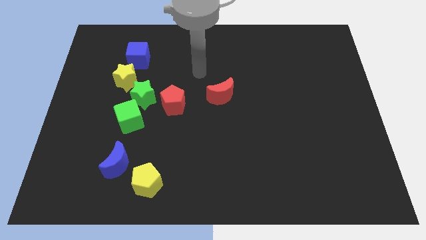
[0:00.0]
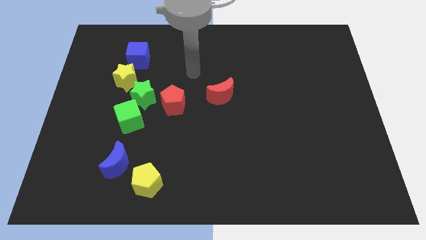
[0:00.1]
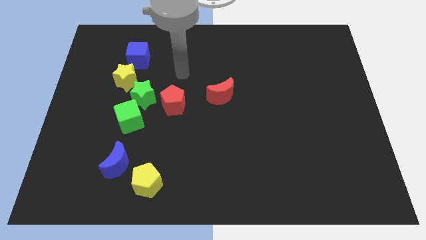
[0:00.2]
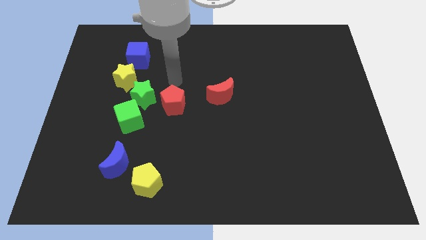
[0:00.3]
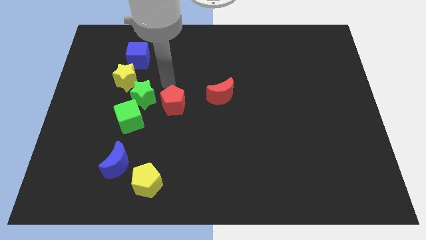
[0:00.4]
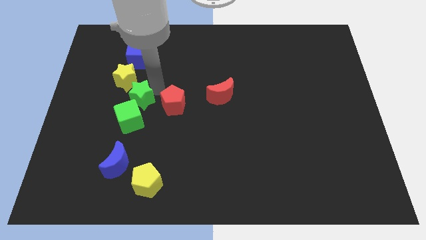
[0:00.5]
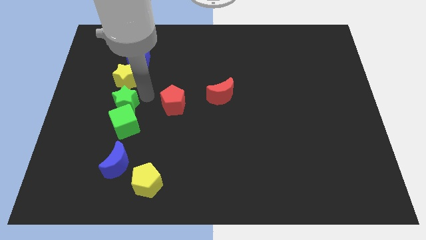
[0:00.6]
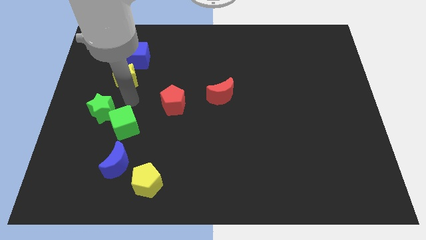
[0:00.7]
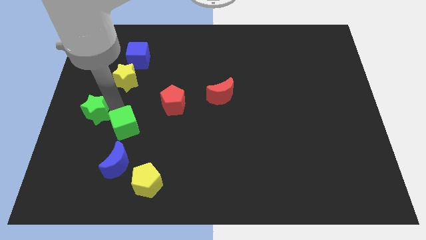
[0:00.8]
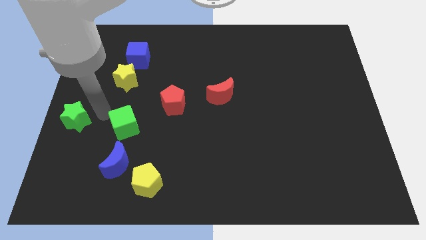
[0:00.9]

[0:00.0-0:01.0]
move the green cube away from the green star

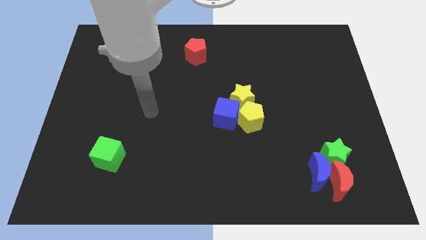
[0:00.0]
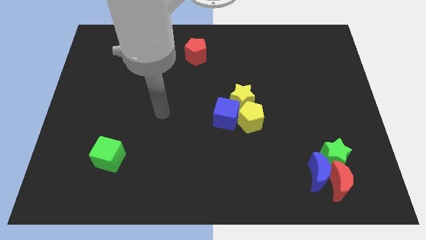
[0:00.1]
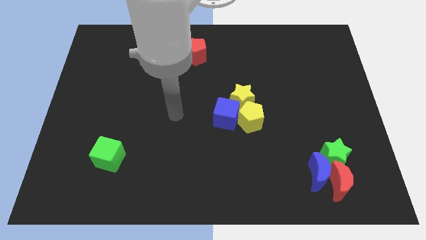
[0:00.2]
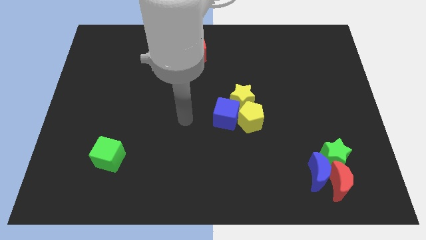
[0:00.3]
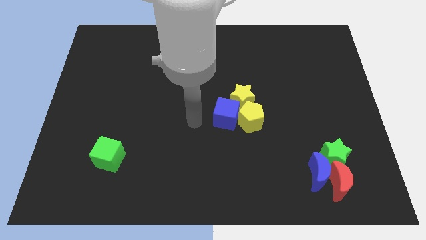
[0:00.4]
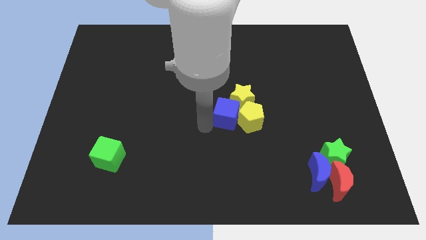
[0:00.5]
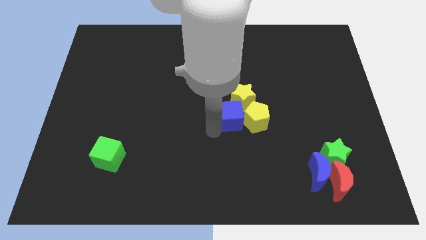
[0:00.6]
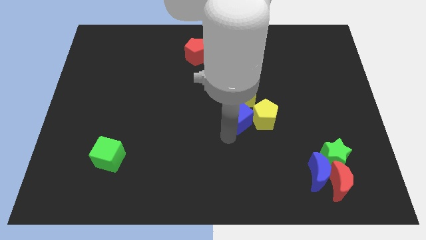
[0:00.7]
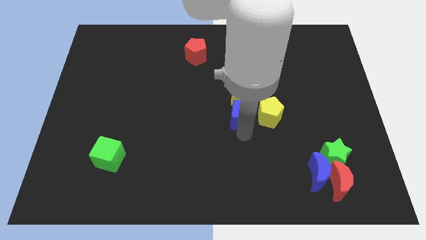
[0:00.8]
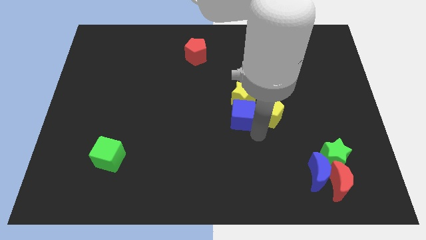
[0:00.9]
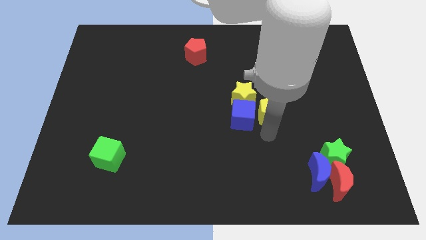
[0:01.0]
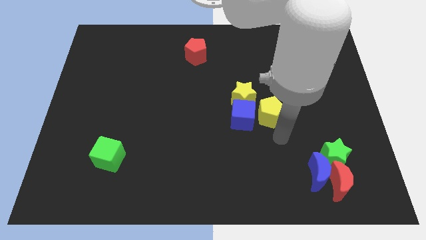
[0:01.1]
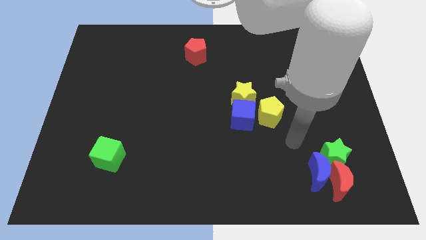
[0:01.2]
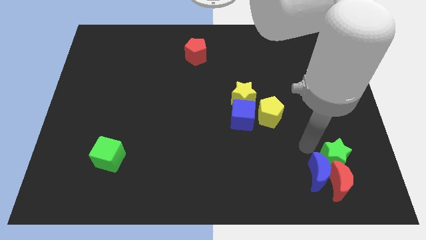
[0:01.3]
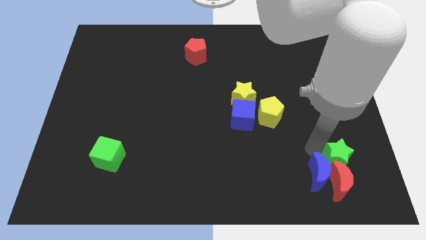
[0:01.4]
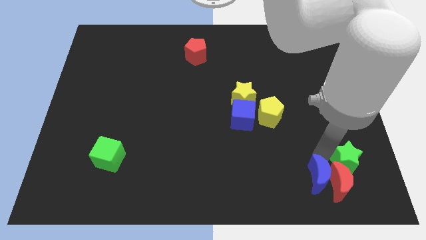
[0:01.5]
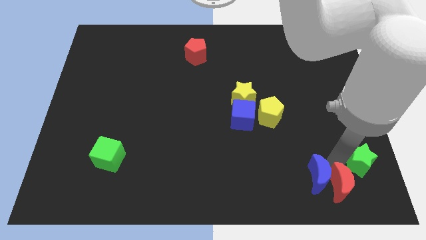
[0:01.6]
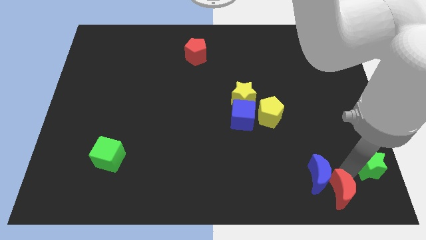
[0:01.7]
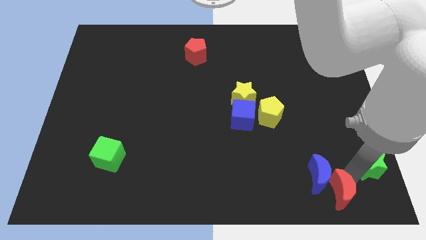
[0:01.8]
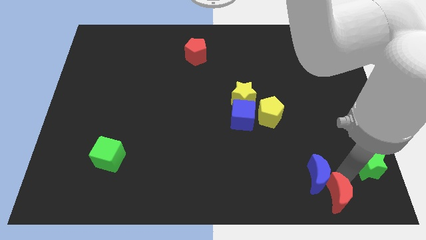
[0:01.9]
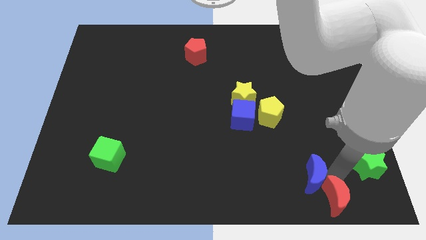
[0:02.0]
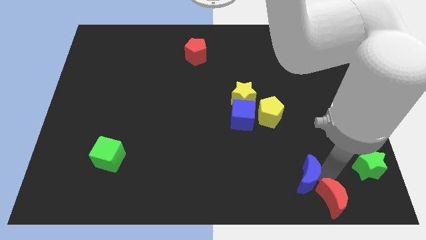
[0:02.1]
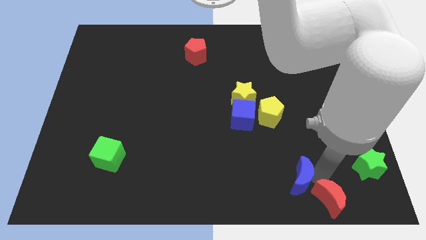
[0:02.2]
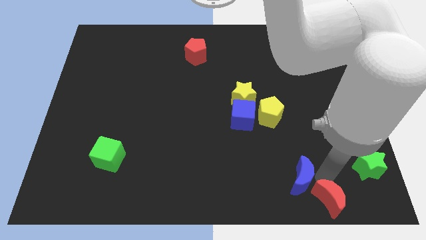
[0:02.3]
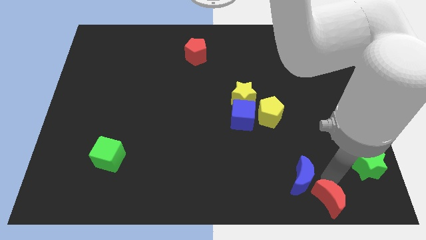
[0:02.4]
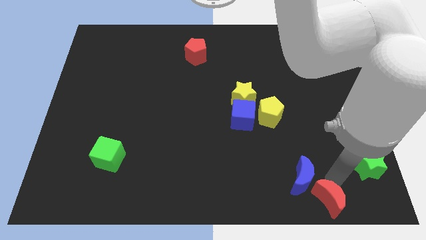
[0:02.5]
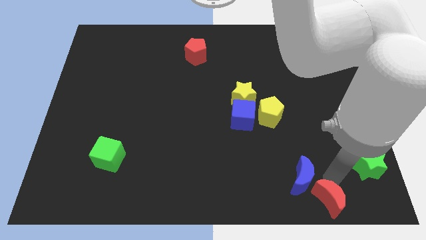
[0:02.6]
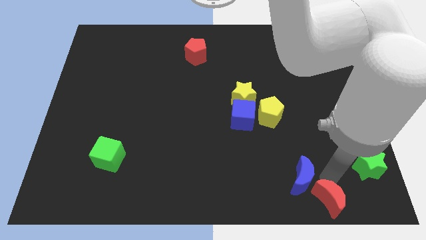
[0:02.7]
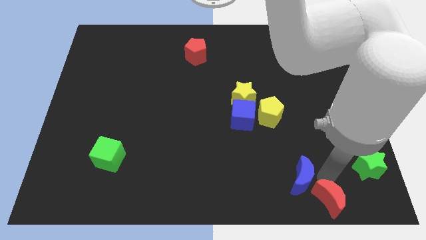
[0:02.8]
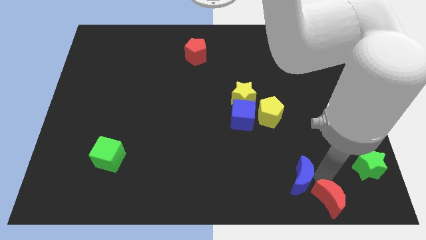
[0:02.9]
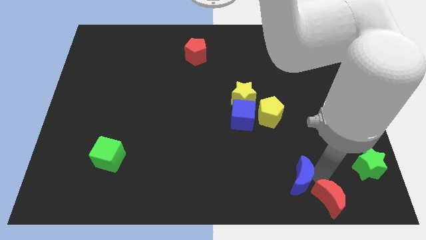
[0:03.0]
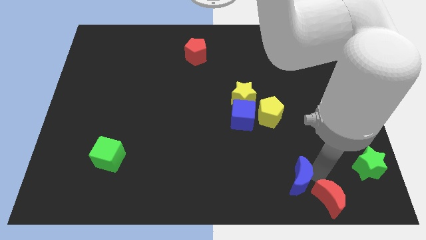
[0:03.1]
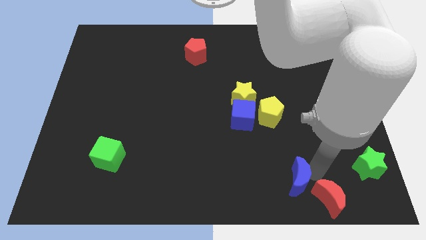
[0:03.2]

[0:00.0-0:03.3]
separate the blue moon from the red moon and green star

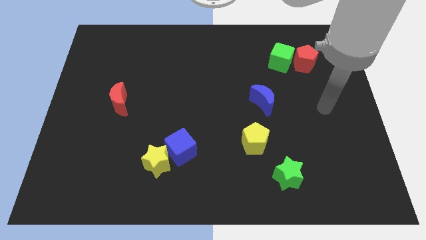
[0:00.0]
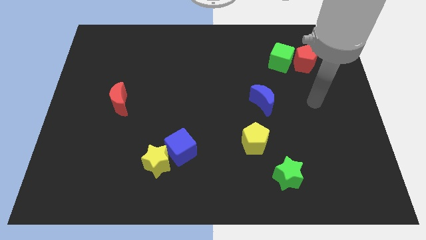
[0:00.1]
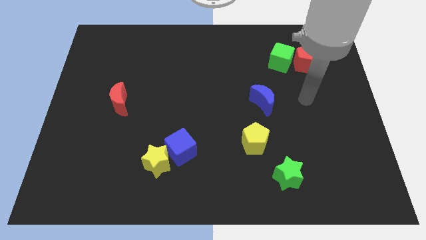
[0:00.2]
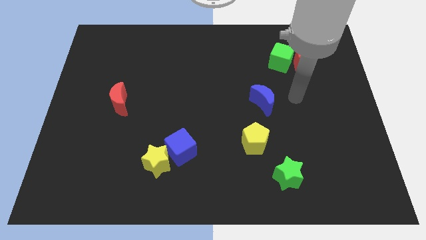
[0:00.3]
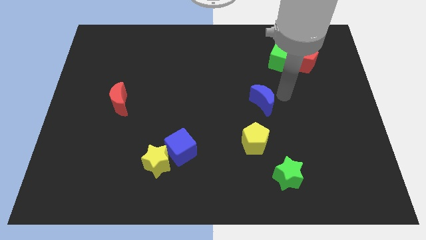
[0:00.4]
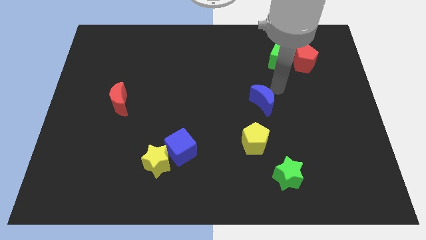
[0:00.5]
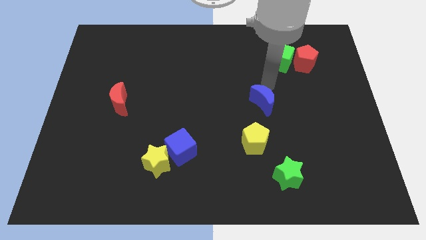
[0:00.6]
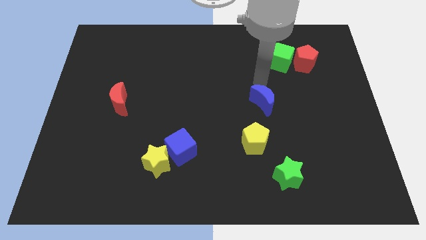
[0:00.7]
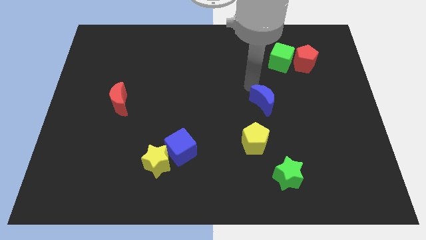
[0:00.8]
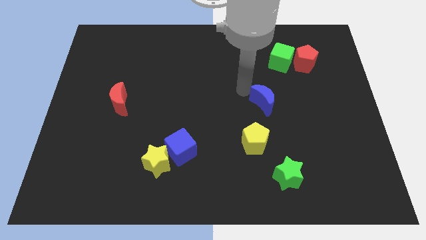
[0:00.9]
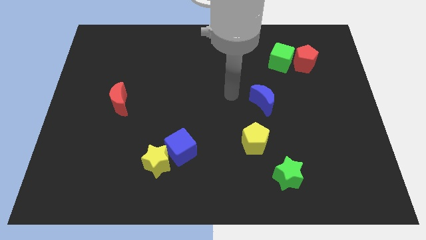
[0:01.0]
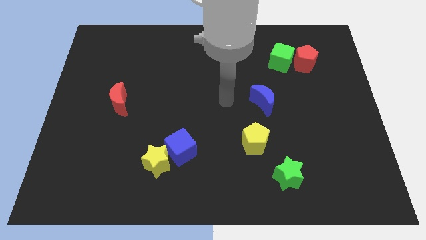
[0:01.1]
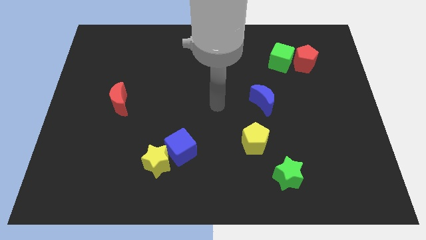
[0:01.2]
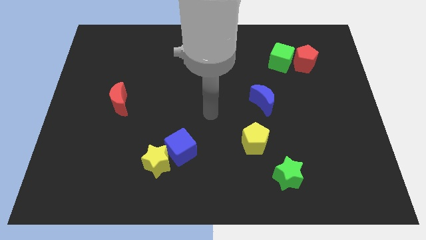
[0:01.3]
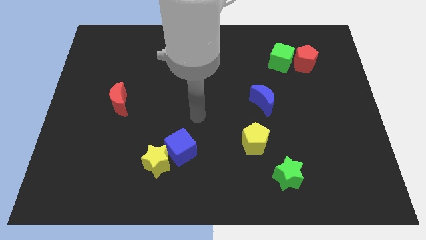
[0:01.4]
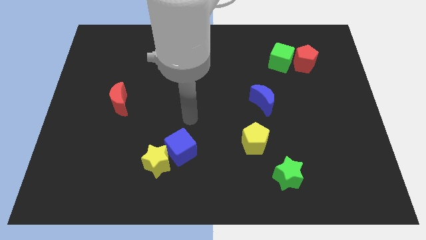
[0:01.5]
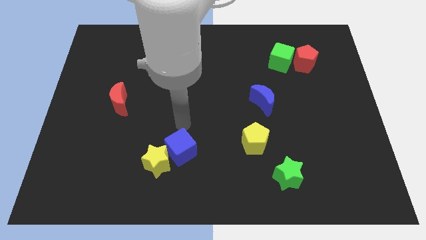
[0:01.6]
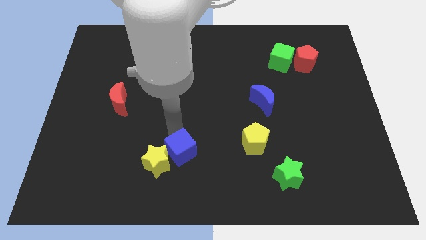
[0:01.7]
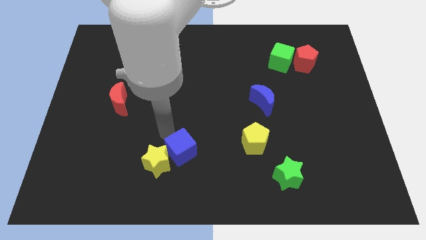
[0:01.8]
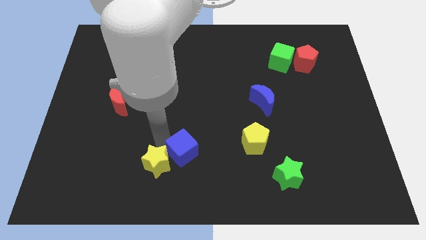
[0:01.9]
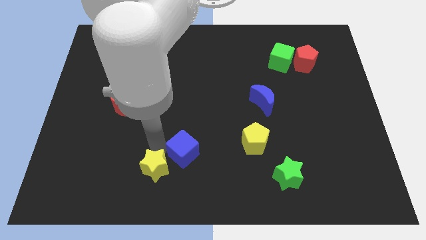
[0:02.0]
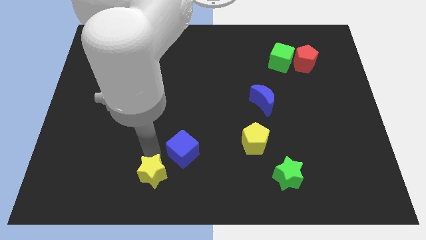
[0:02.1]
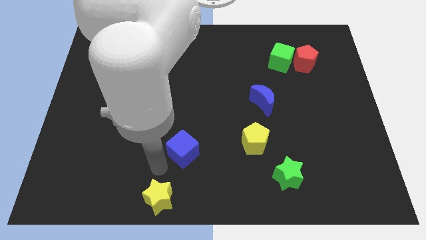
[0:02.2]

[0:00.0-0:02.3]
pull the blue cube apart from the yellow star

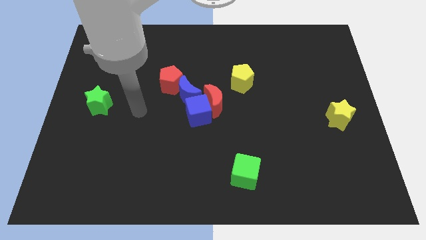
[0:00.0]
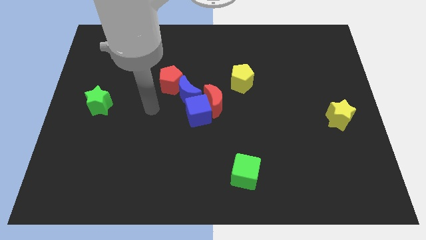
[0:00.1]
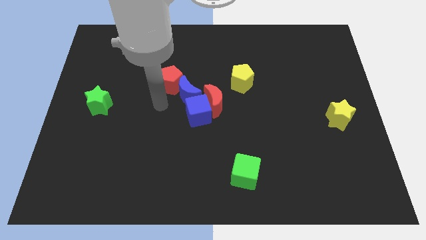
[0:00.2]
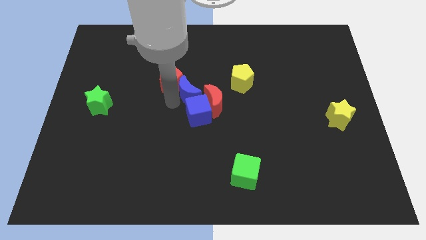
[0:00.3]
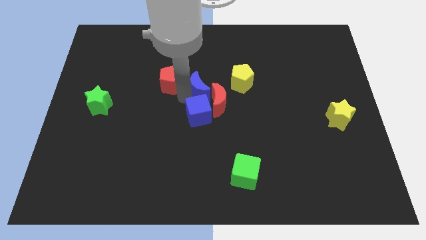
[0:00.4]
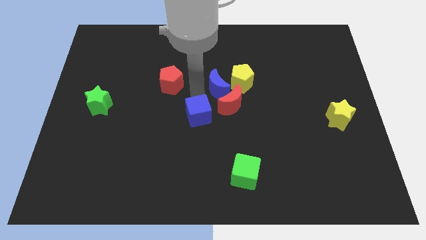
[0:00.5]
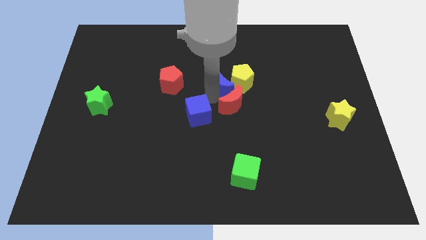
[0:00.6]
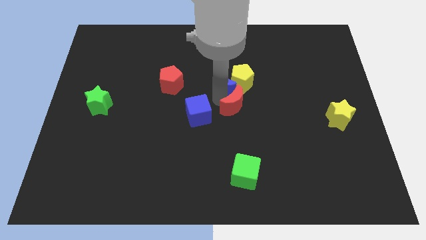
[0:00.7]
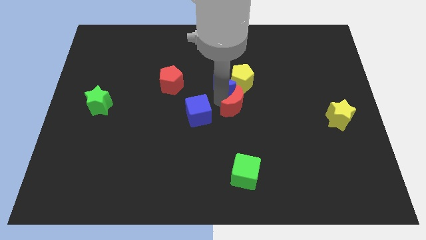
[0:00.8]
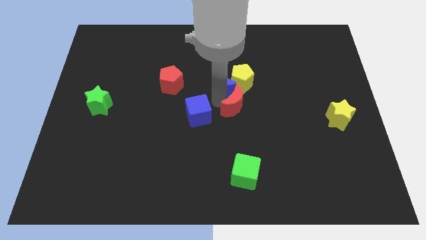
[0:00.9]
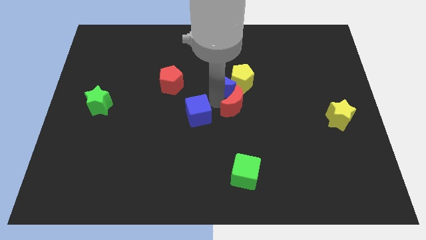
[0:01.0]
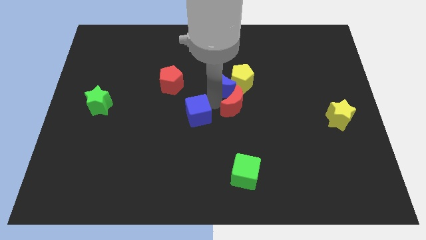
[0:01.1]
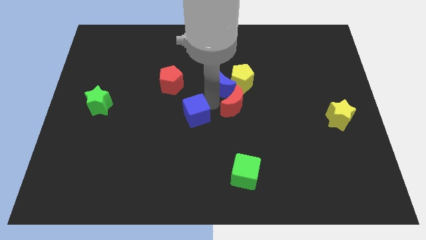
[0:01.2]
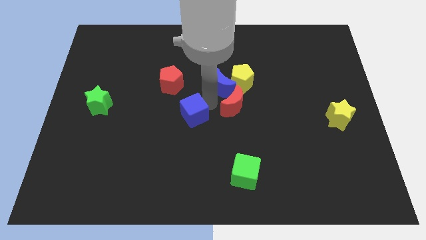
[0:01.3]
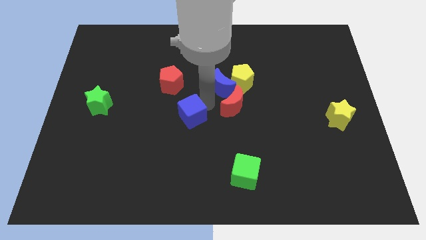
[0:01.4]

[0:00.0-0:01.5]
separate the blue cube from the red moon and blue moon

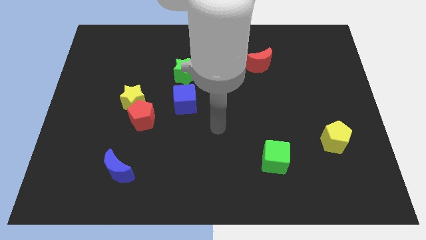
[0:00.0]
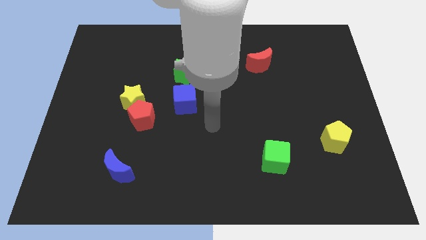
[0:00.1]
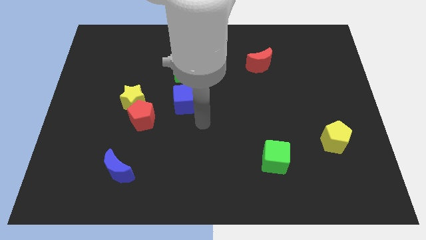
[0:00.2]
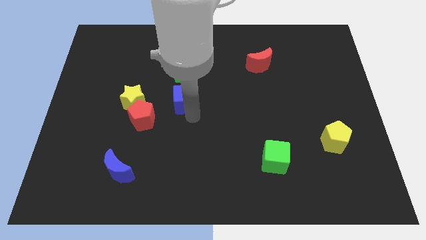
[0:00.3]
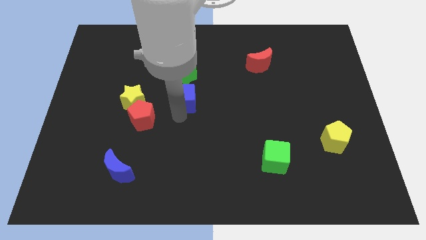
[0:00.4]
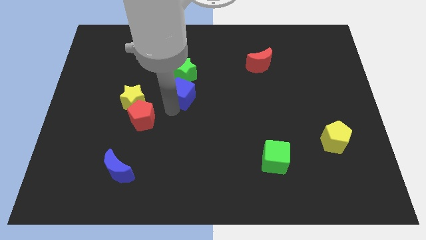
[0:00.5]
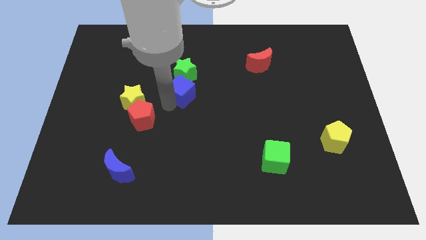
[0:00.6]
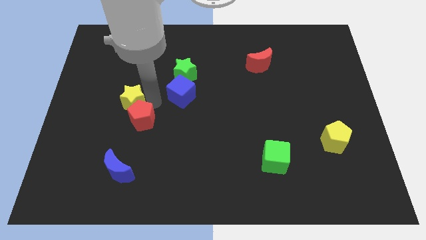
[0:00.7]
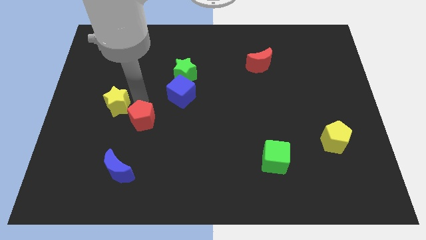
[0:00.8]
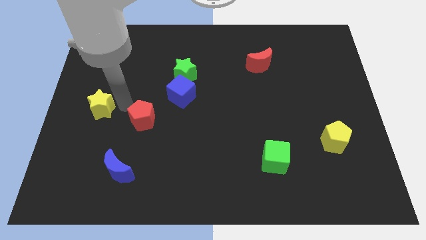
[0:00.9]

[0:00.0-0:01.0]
pull the red pentagon apart from the yellow star

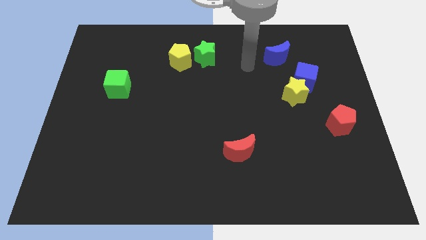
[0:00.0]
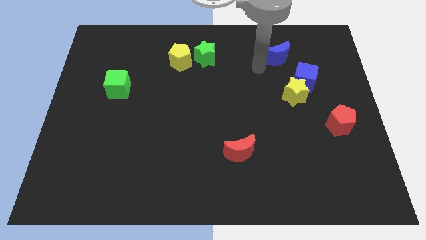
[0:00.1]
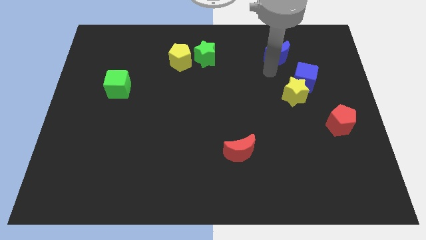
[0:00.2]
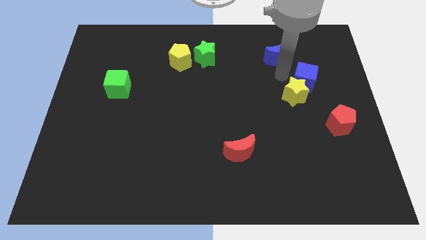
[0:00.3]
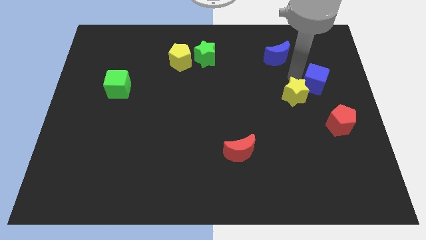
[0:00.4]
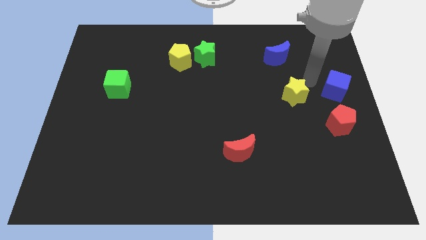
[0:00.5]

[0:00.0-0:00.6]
pull the yellow star apart from the blue cube
